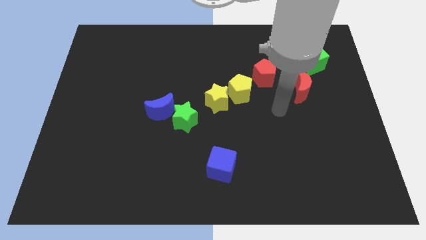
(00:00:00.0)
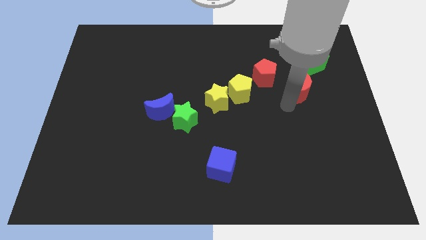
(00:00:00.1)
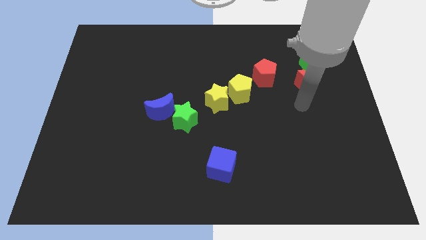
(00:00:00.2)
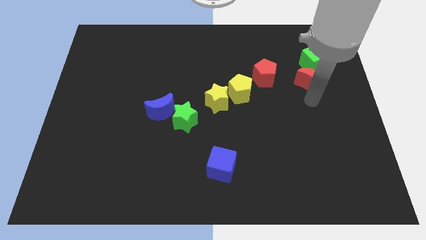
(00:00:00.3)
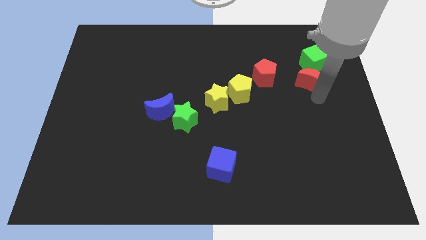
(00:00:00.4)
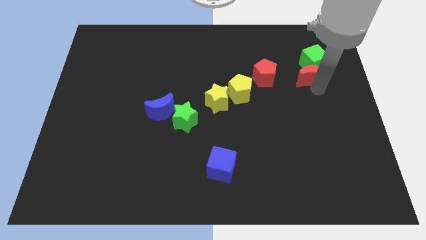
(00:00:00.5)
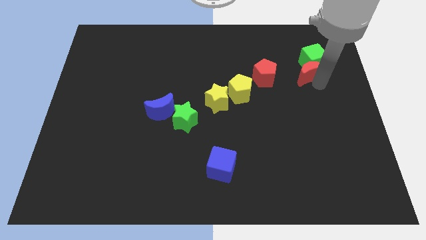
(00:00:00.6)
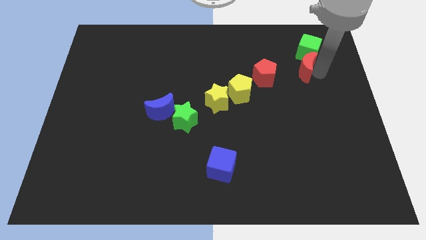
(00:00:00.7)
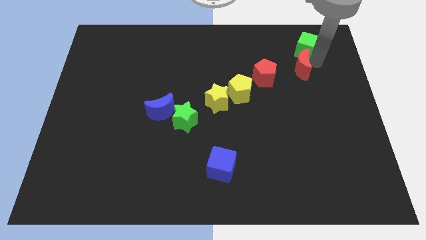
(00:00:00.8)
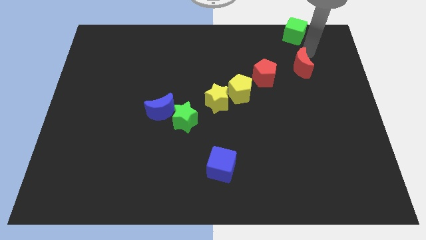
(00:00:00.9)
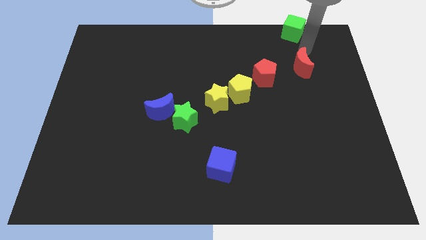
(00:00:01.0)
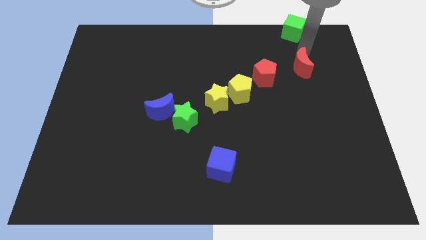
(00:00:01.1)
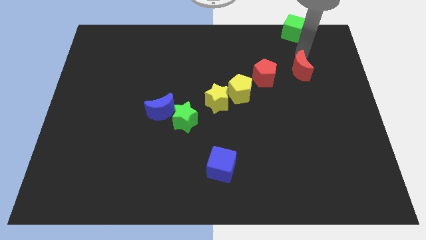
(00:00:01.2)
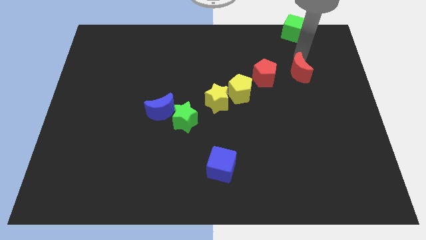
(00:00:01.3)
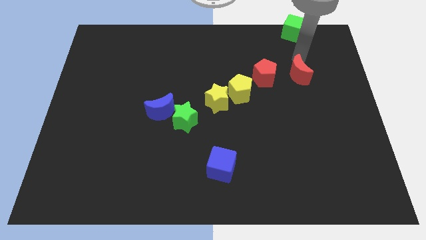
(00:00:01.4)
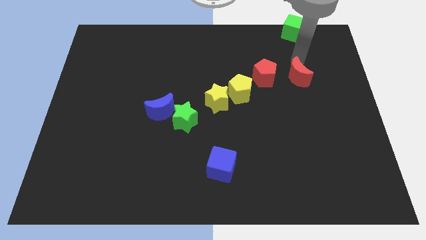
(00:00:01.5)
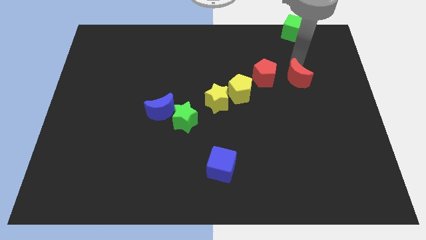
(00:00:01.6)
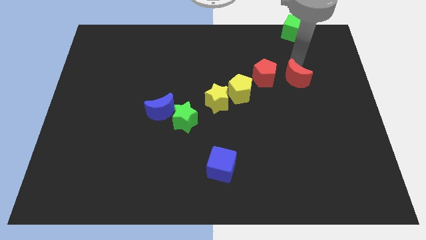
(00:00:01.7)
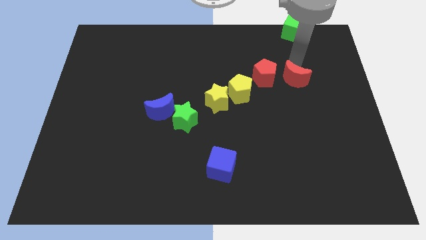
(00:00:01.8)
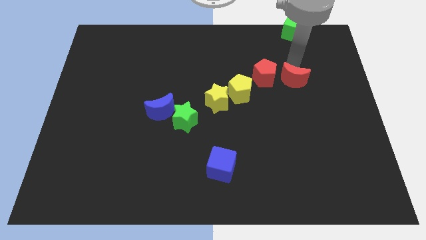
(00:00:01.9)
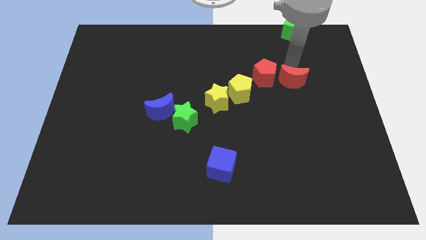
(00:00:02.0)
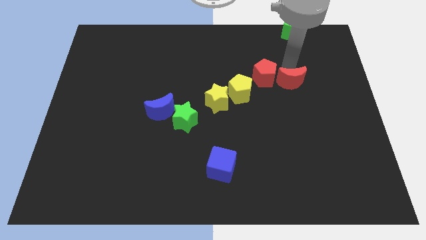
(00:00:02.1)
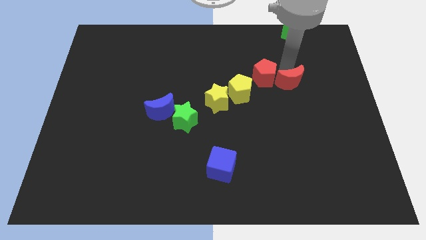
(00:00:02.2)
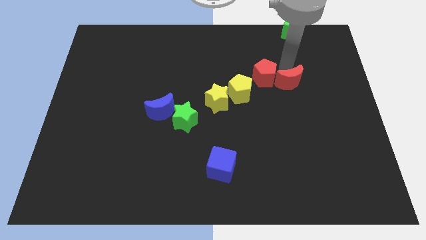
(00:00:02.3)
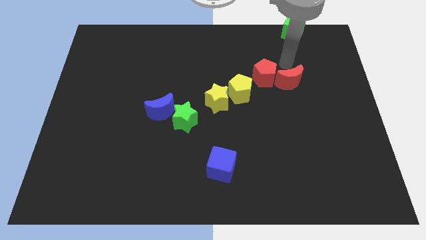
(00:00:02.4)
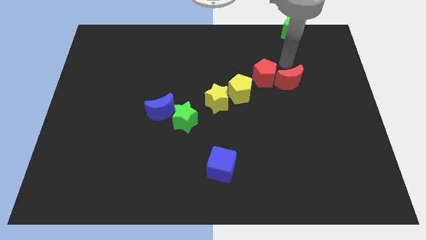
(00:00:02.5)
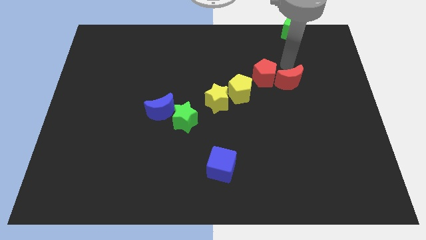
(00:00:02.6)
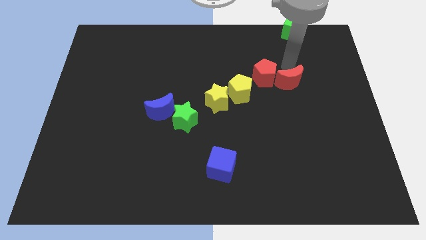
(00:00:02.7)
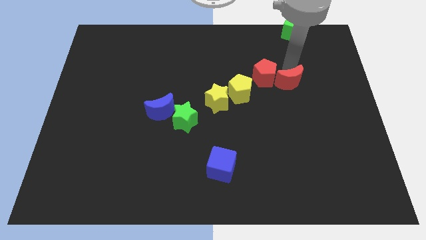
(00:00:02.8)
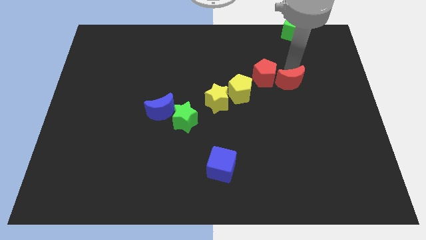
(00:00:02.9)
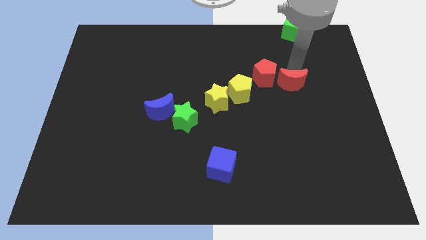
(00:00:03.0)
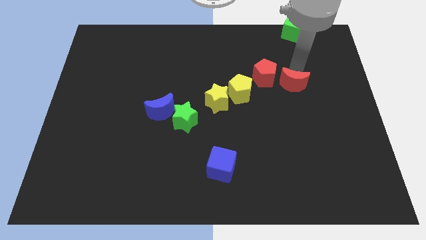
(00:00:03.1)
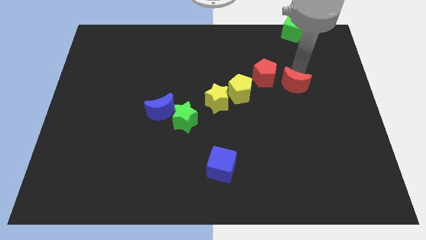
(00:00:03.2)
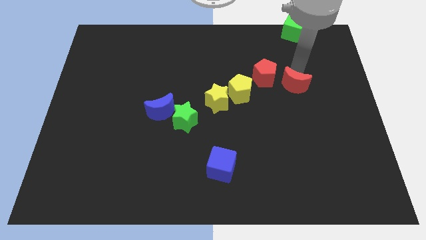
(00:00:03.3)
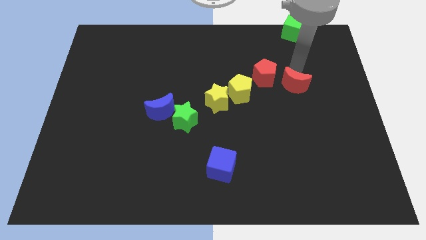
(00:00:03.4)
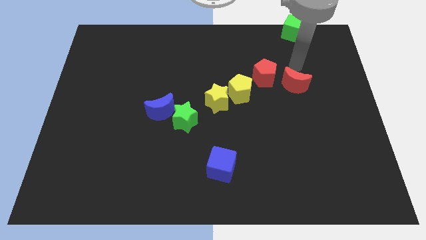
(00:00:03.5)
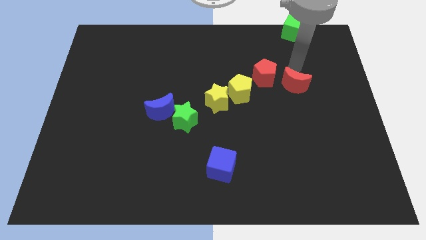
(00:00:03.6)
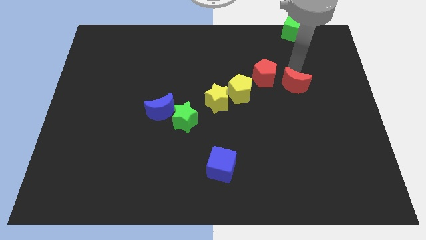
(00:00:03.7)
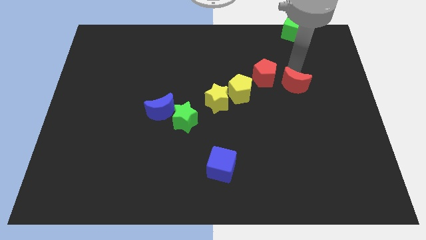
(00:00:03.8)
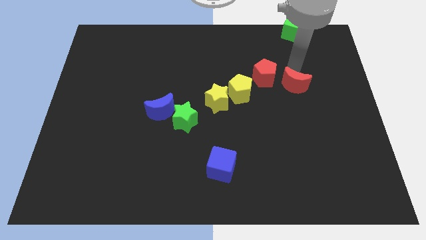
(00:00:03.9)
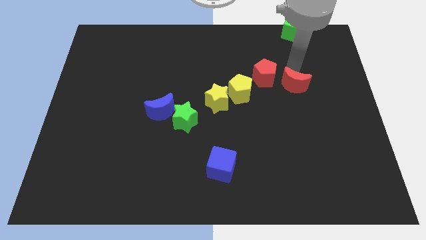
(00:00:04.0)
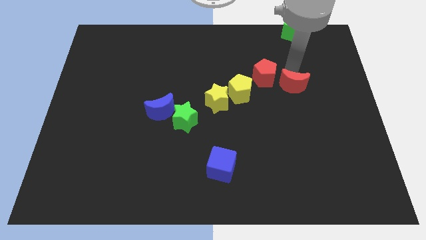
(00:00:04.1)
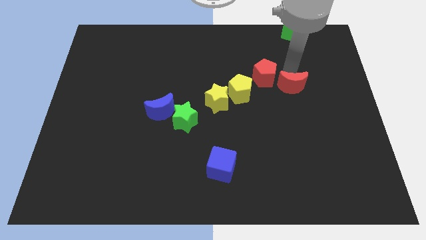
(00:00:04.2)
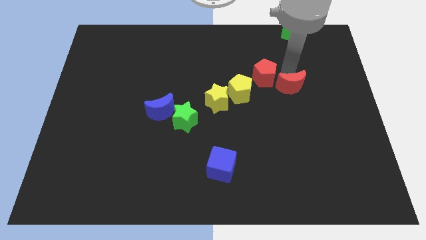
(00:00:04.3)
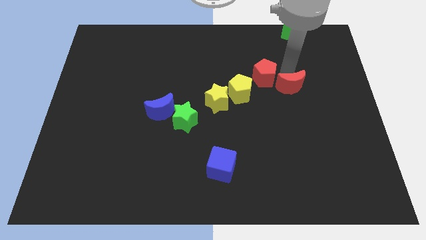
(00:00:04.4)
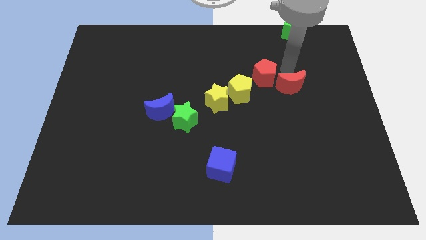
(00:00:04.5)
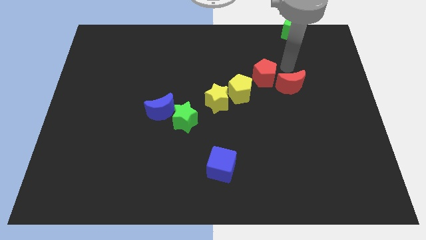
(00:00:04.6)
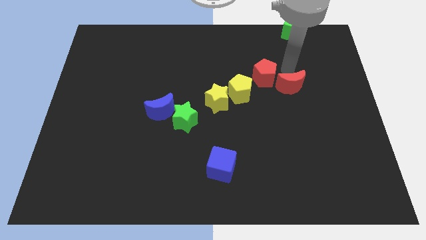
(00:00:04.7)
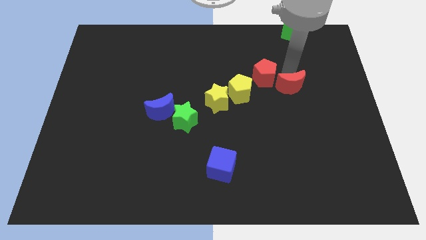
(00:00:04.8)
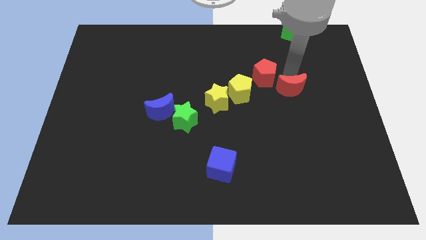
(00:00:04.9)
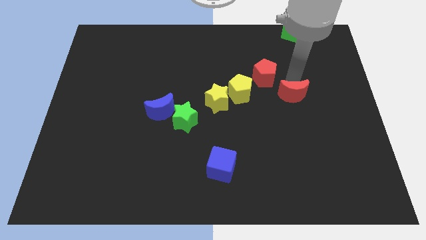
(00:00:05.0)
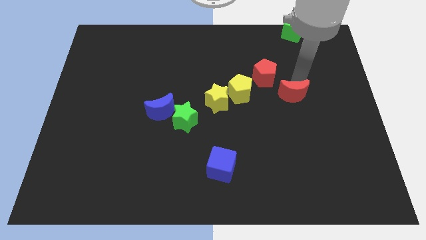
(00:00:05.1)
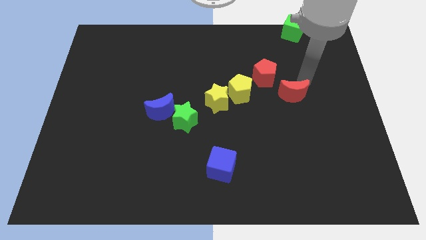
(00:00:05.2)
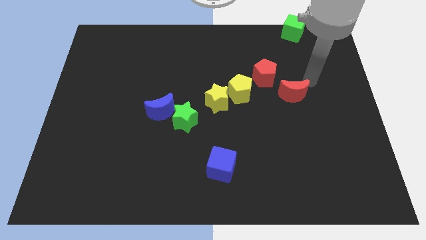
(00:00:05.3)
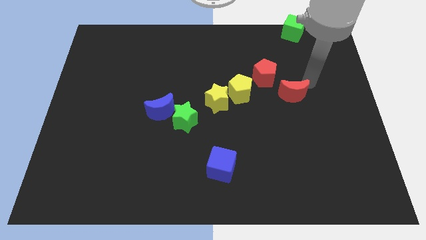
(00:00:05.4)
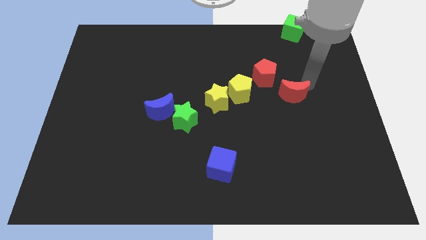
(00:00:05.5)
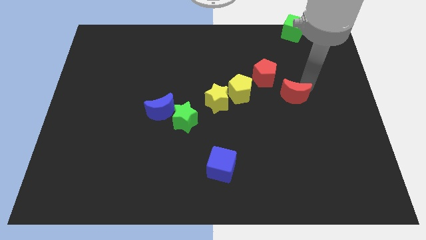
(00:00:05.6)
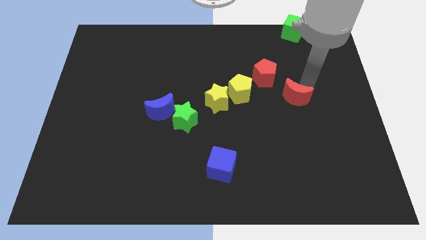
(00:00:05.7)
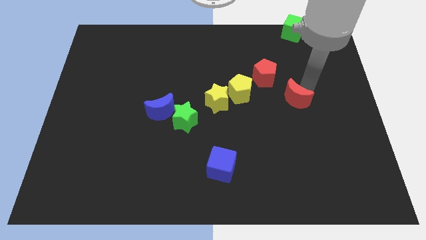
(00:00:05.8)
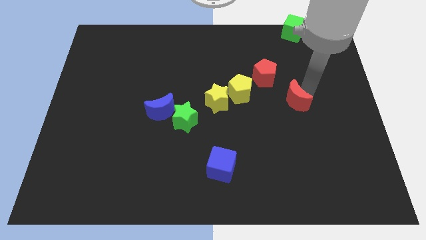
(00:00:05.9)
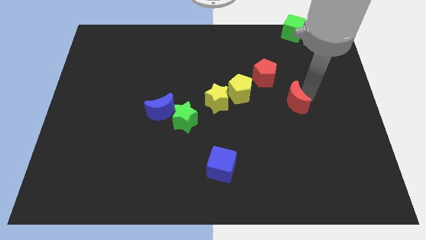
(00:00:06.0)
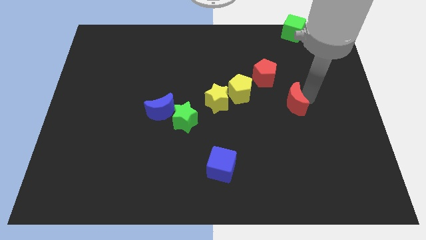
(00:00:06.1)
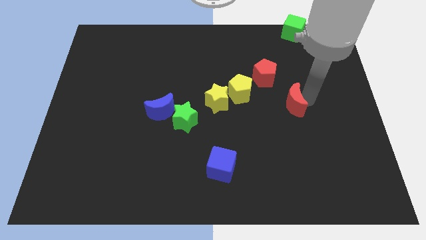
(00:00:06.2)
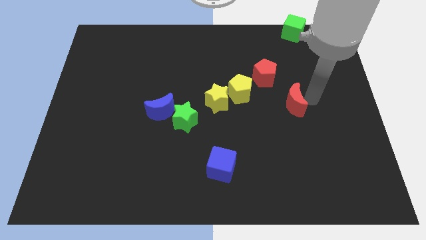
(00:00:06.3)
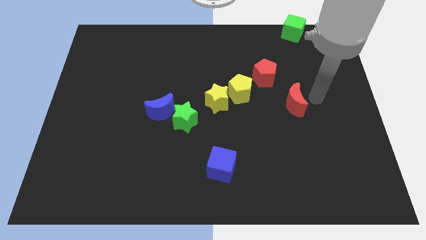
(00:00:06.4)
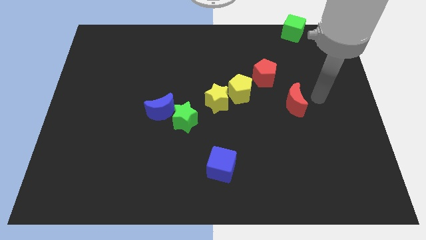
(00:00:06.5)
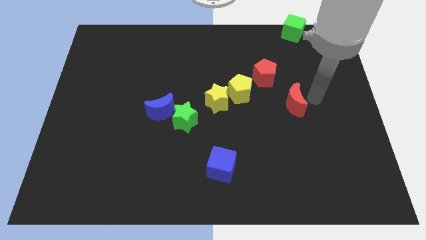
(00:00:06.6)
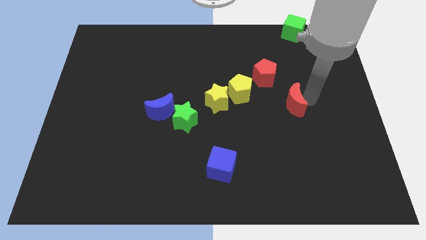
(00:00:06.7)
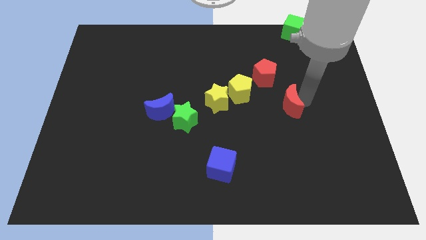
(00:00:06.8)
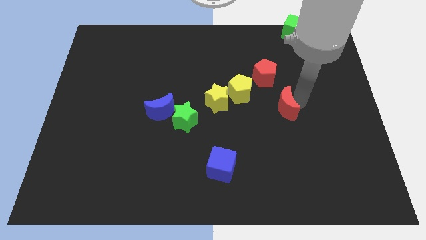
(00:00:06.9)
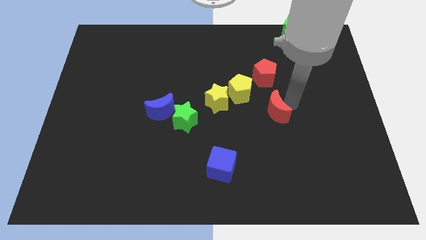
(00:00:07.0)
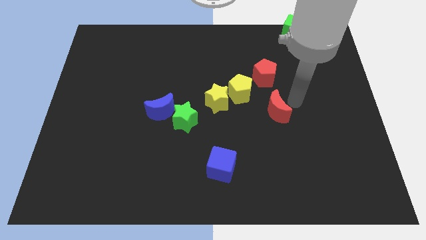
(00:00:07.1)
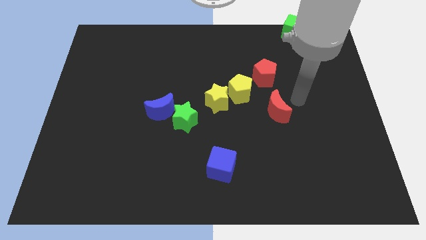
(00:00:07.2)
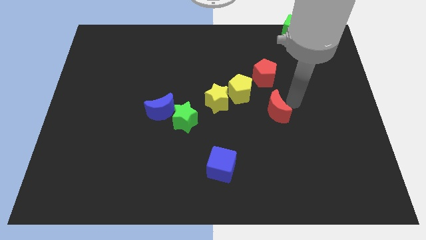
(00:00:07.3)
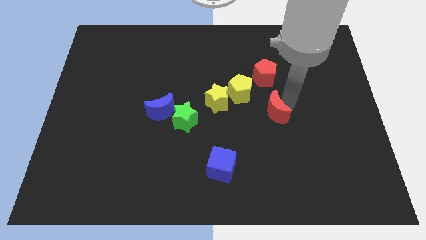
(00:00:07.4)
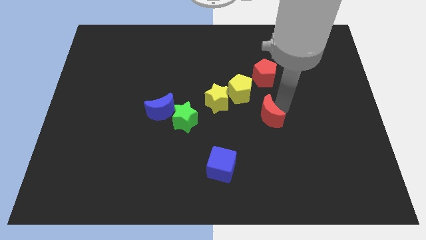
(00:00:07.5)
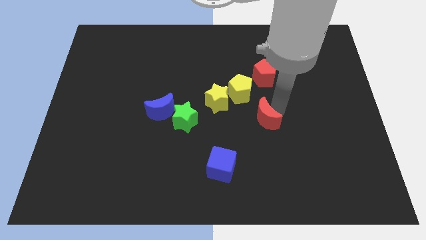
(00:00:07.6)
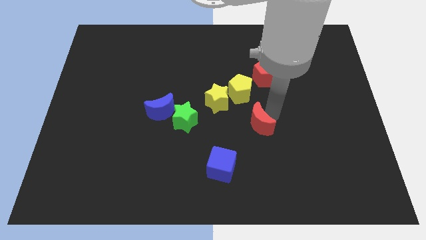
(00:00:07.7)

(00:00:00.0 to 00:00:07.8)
push the red moon to the bottom of the yellow pentagon

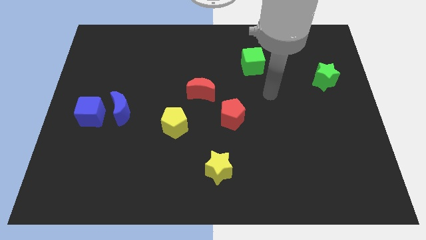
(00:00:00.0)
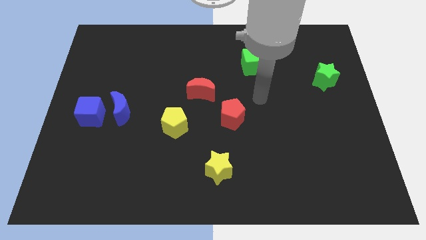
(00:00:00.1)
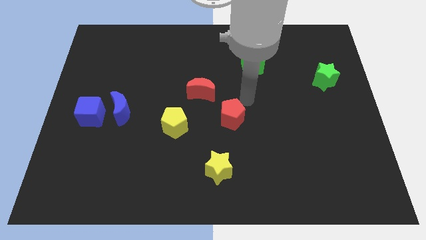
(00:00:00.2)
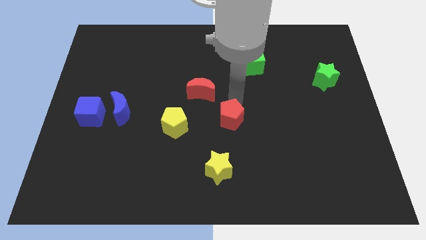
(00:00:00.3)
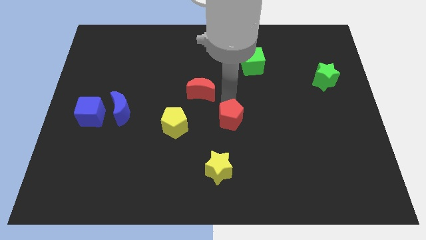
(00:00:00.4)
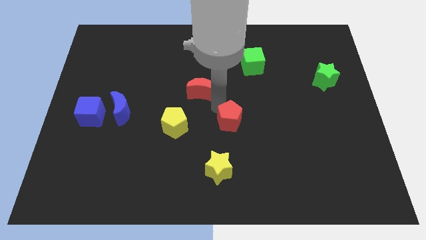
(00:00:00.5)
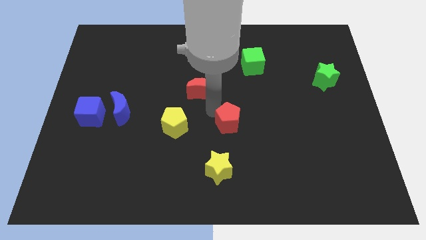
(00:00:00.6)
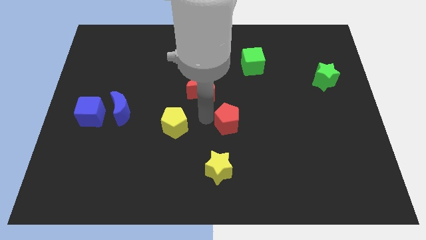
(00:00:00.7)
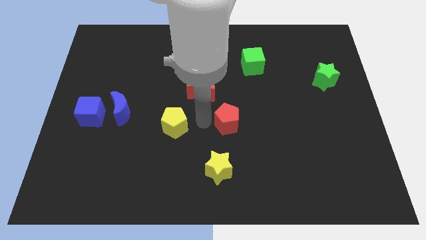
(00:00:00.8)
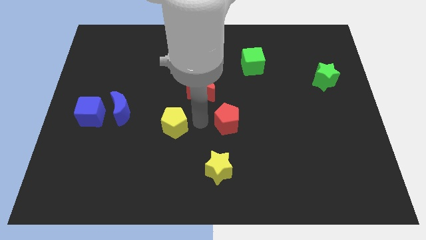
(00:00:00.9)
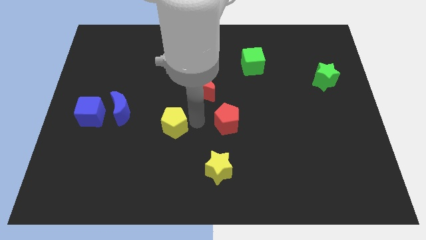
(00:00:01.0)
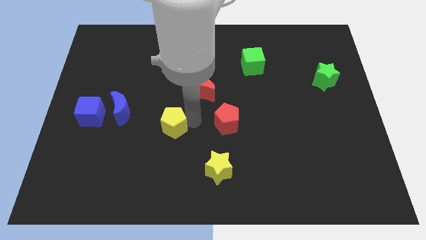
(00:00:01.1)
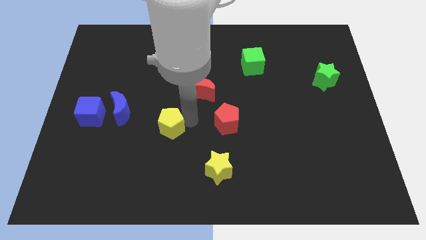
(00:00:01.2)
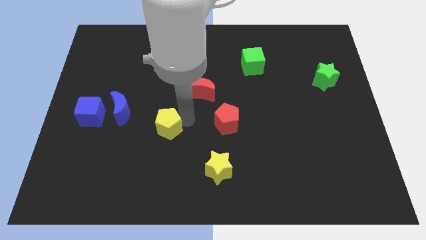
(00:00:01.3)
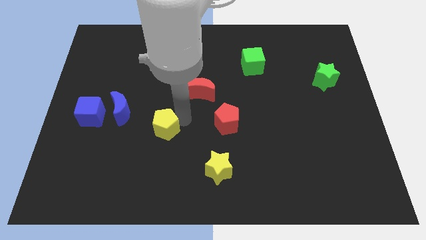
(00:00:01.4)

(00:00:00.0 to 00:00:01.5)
slide the yellow pentagon diagonally down and to the right of the blue moon
